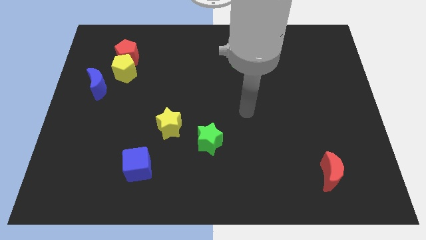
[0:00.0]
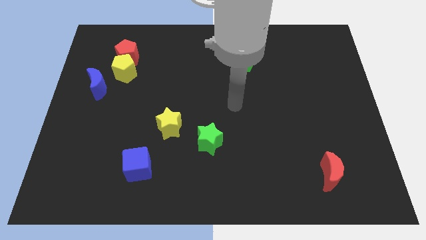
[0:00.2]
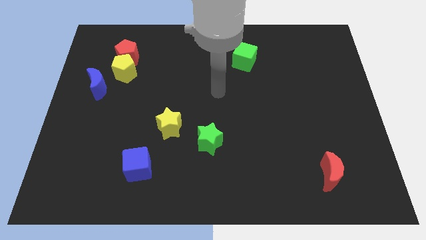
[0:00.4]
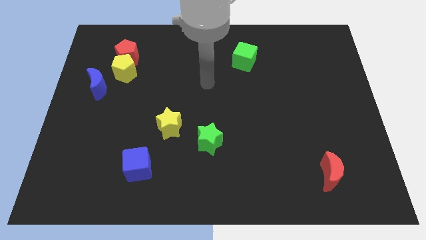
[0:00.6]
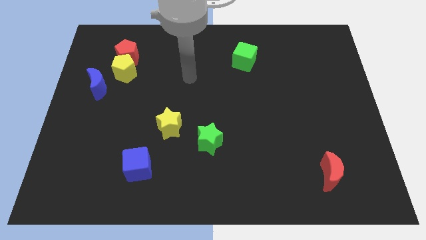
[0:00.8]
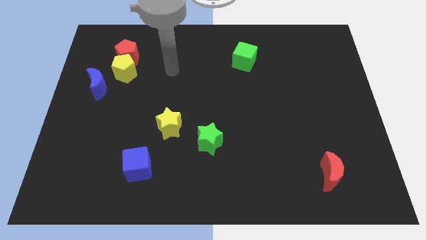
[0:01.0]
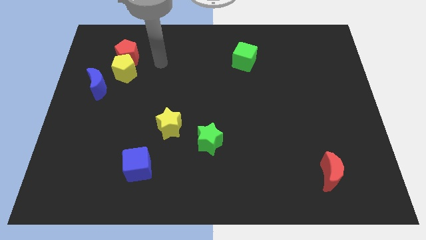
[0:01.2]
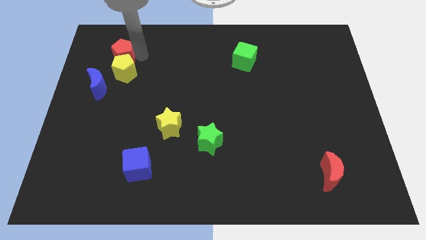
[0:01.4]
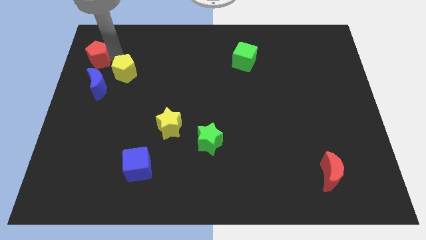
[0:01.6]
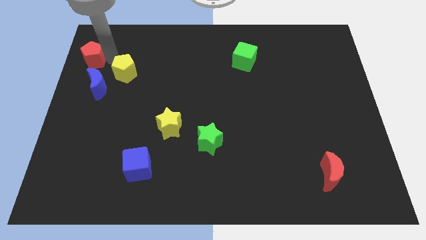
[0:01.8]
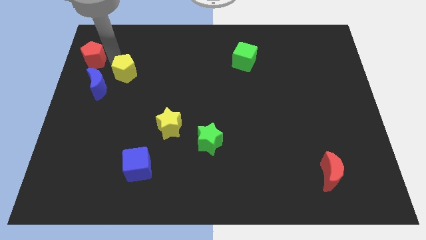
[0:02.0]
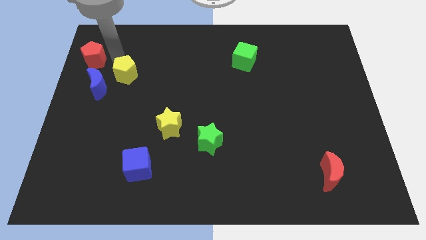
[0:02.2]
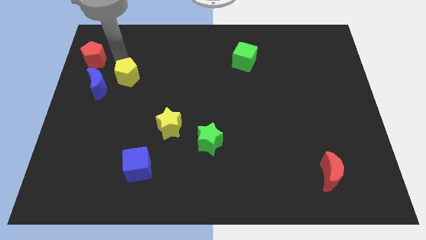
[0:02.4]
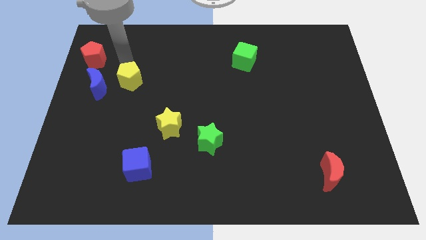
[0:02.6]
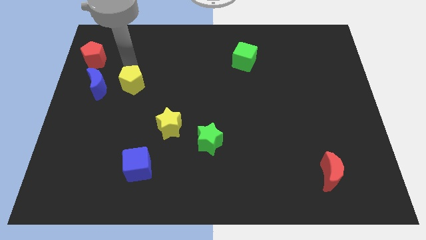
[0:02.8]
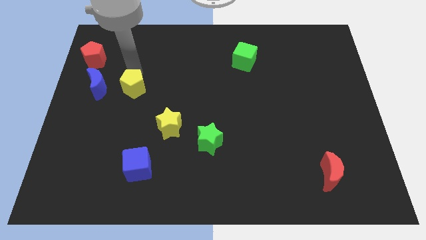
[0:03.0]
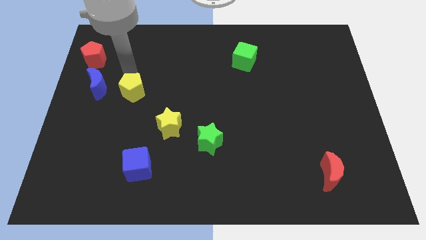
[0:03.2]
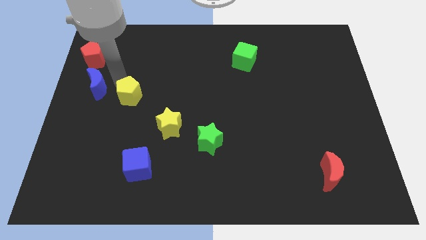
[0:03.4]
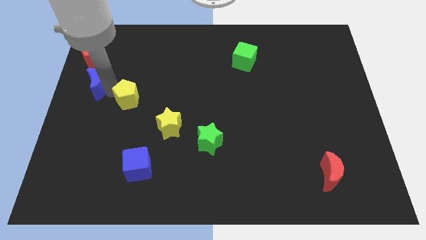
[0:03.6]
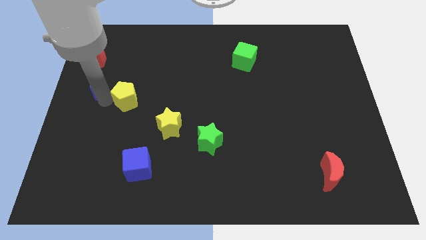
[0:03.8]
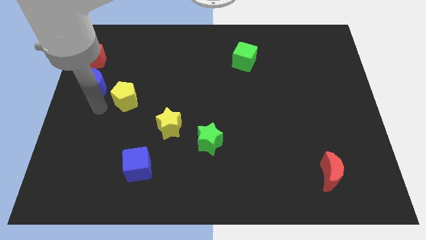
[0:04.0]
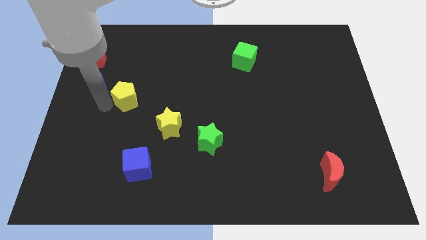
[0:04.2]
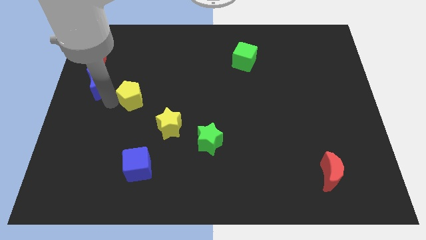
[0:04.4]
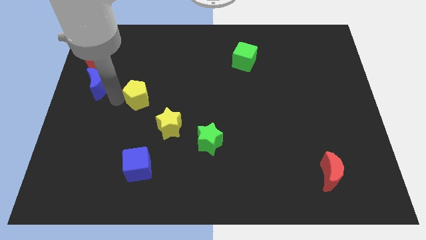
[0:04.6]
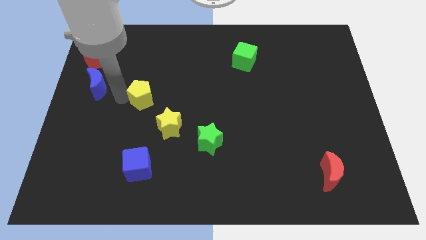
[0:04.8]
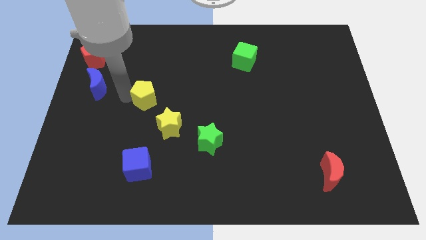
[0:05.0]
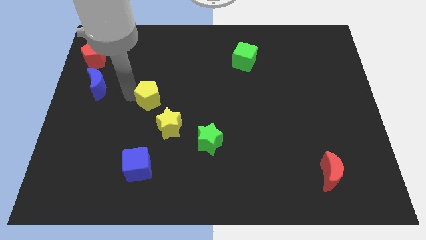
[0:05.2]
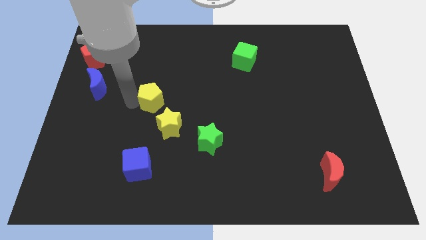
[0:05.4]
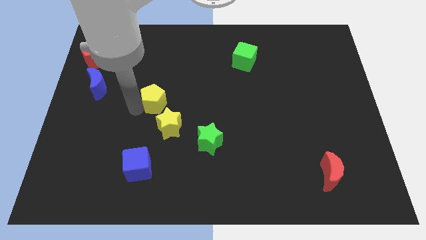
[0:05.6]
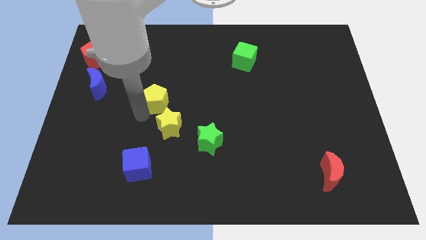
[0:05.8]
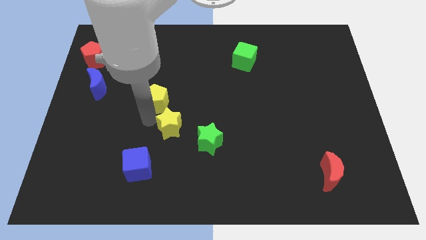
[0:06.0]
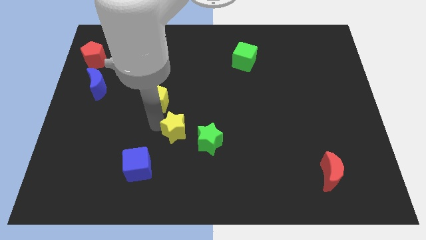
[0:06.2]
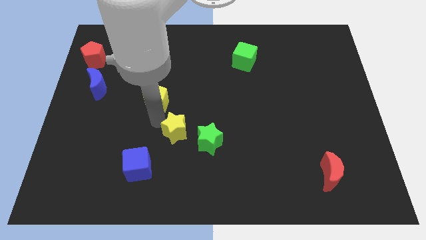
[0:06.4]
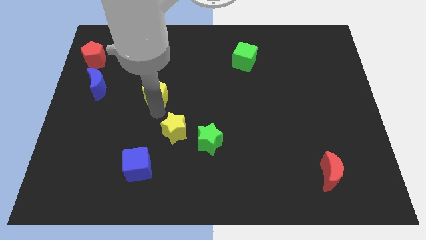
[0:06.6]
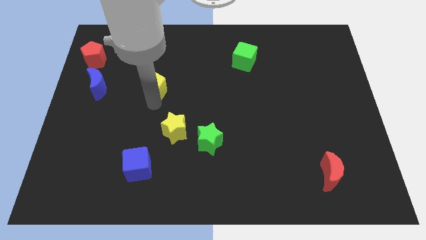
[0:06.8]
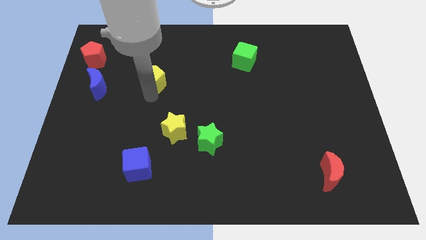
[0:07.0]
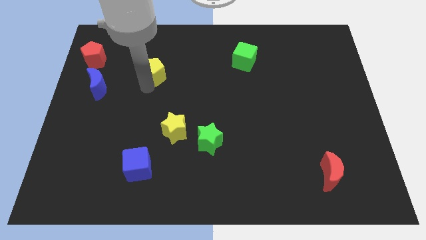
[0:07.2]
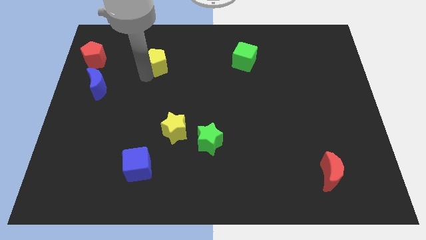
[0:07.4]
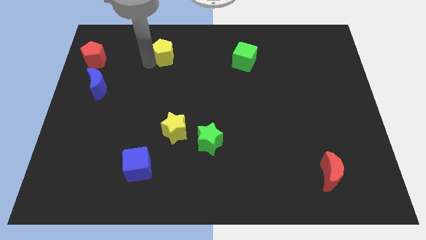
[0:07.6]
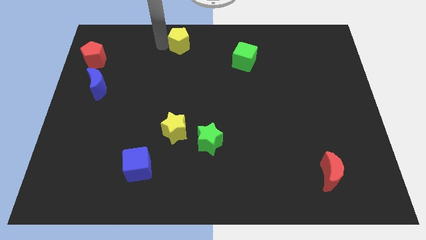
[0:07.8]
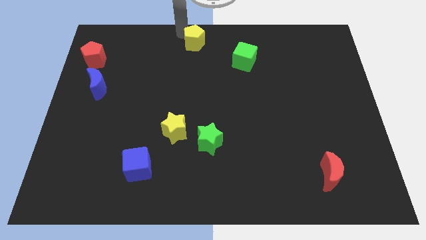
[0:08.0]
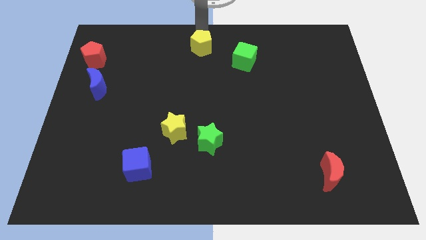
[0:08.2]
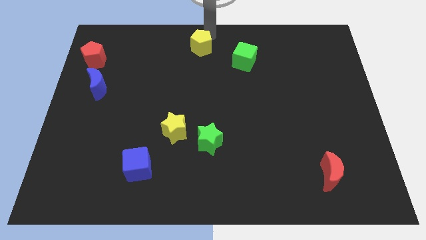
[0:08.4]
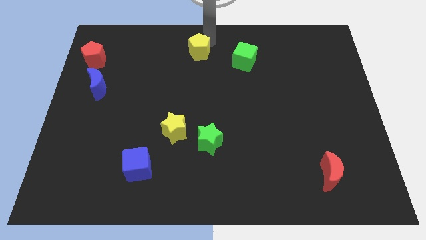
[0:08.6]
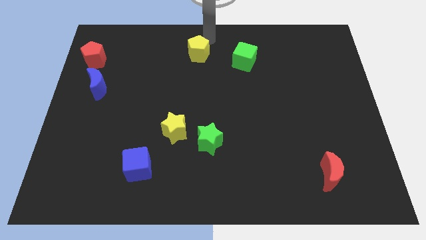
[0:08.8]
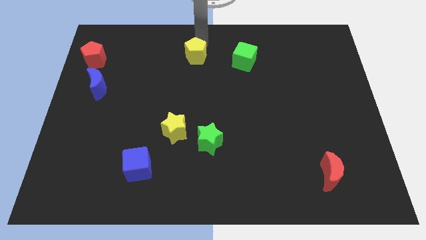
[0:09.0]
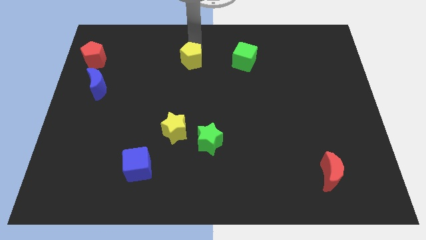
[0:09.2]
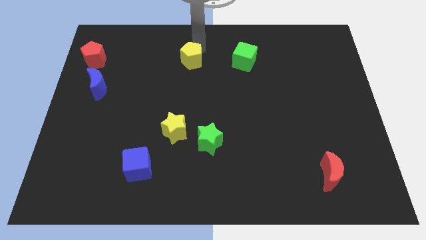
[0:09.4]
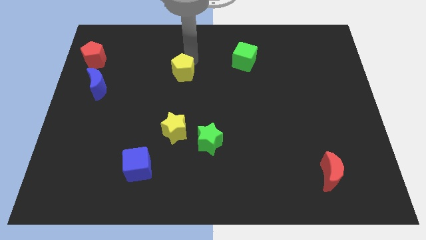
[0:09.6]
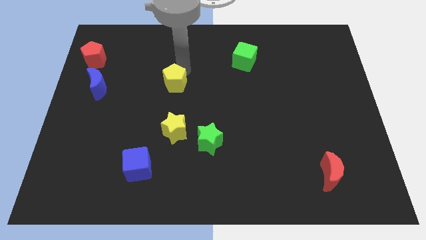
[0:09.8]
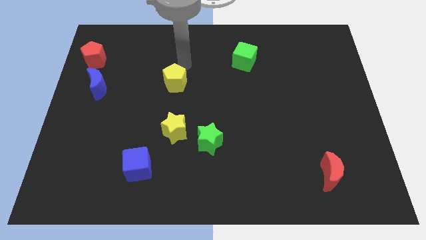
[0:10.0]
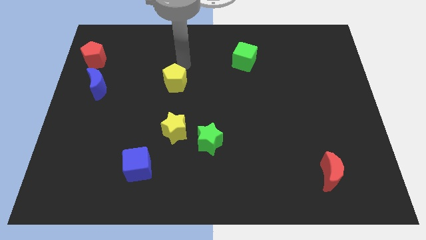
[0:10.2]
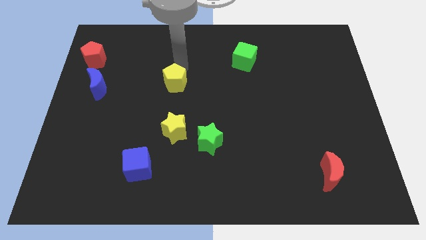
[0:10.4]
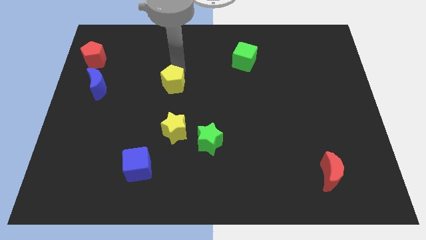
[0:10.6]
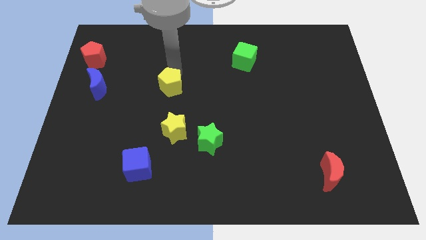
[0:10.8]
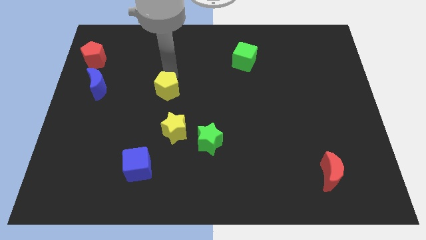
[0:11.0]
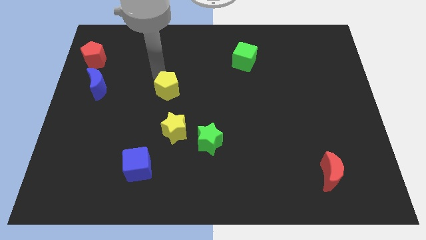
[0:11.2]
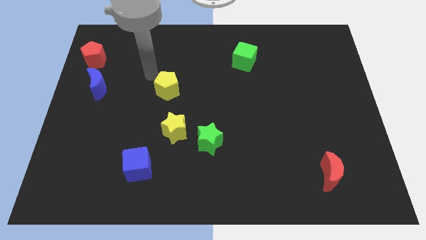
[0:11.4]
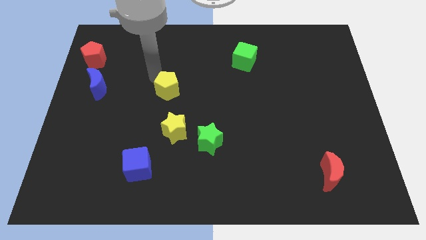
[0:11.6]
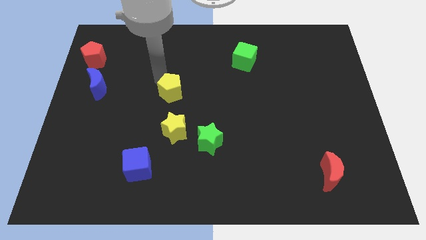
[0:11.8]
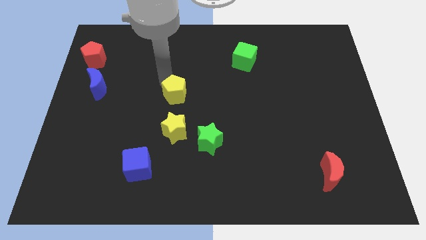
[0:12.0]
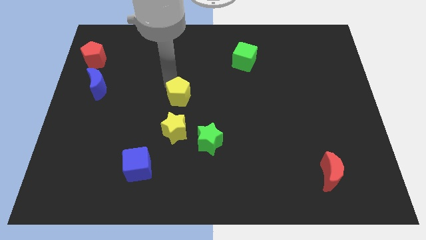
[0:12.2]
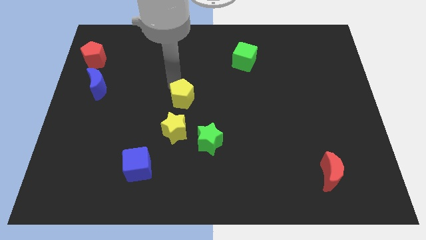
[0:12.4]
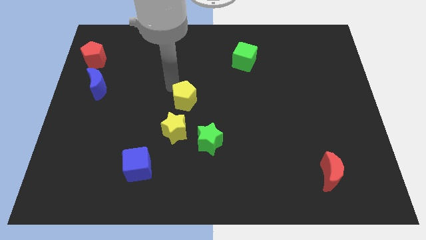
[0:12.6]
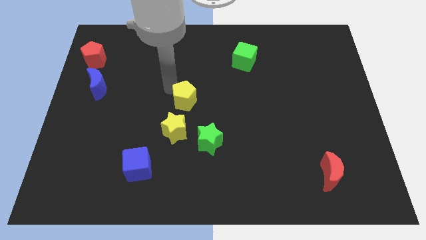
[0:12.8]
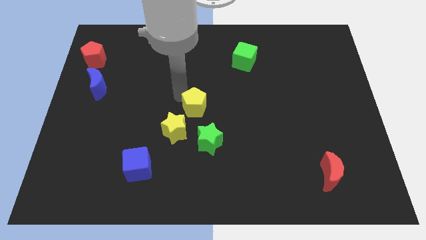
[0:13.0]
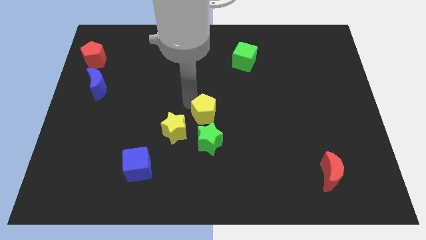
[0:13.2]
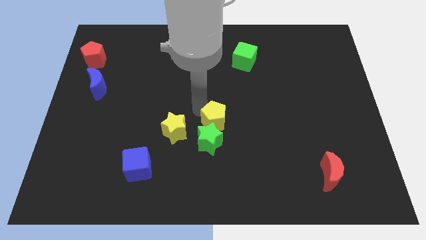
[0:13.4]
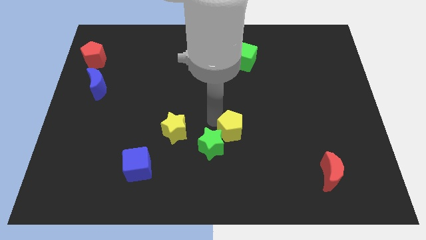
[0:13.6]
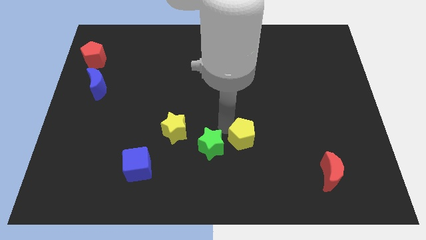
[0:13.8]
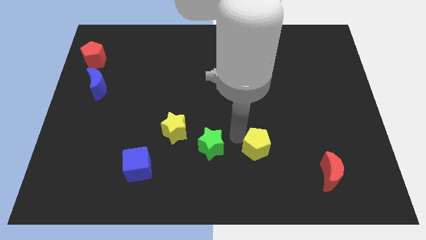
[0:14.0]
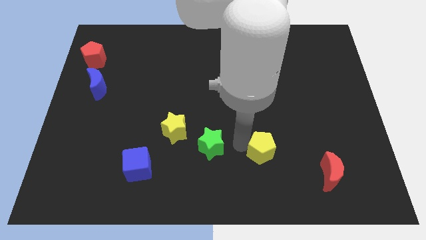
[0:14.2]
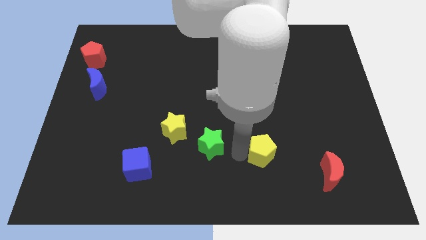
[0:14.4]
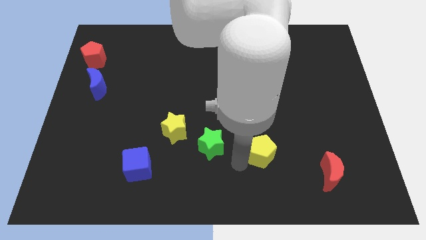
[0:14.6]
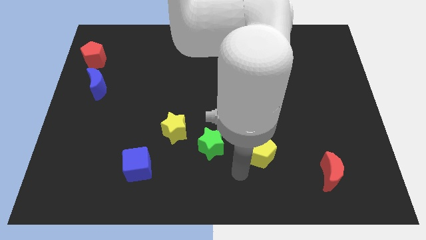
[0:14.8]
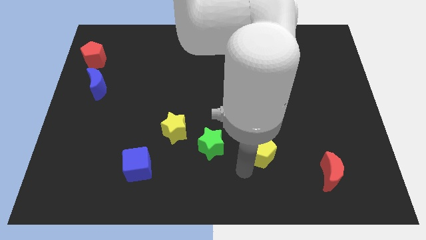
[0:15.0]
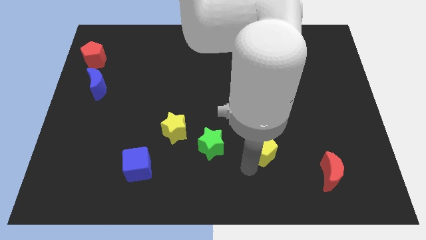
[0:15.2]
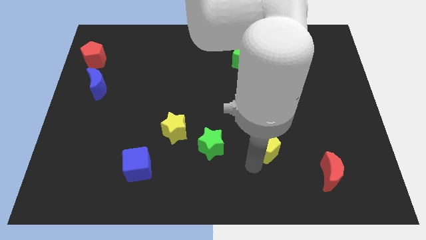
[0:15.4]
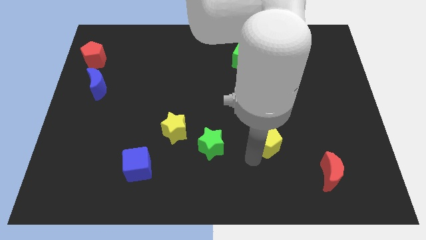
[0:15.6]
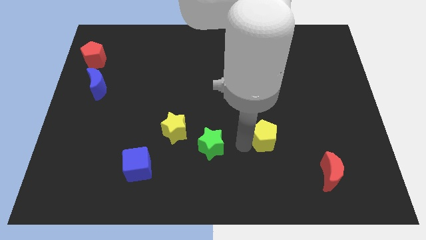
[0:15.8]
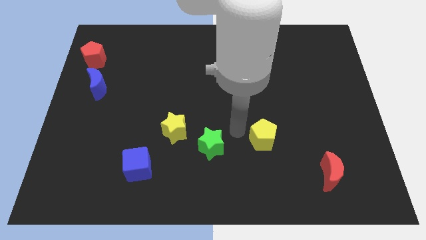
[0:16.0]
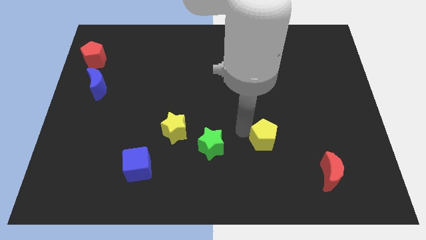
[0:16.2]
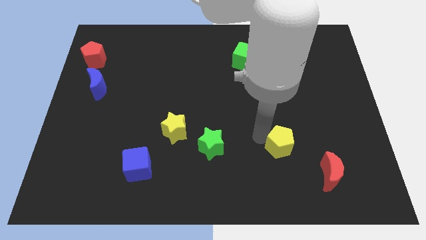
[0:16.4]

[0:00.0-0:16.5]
move the yellow pentagon to the top left side of the red moon
